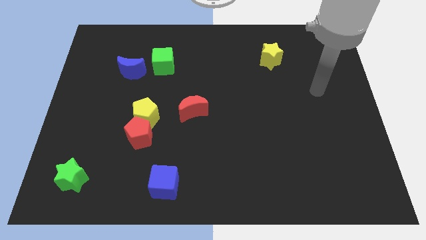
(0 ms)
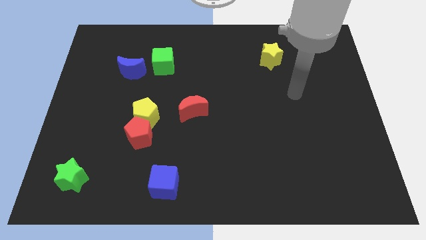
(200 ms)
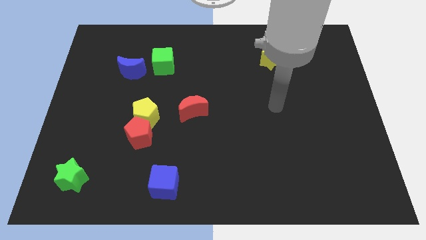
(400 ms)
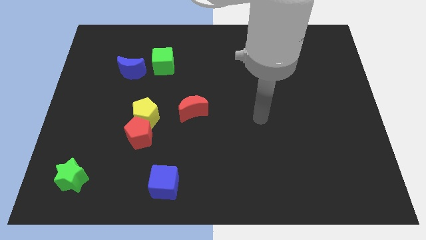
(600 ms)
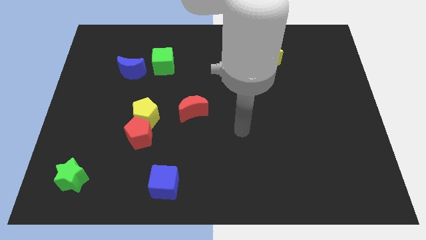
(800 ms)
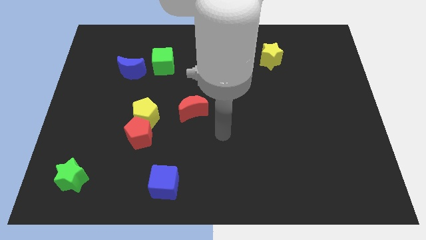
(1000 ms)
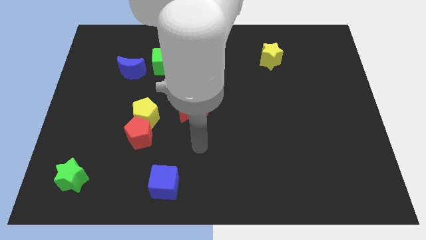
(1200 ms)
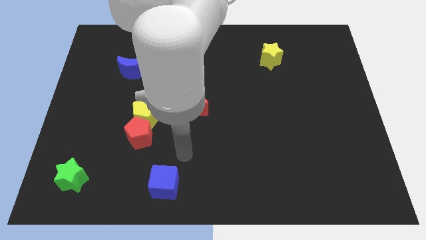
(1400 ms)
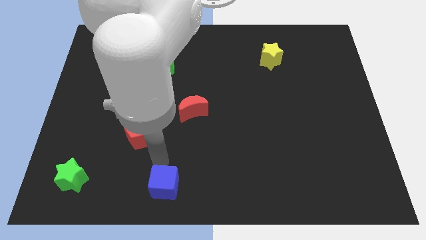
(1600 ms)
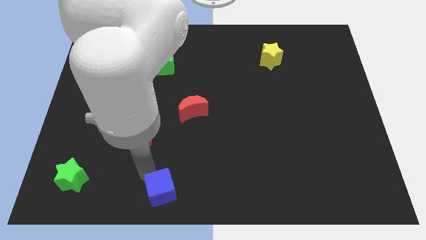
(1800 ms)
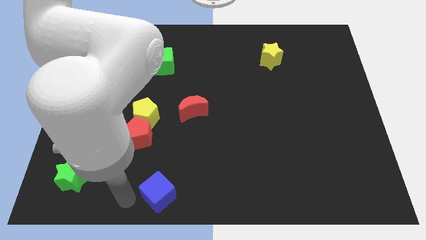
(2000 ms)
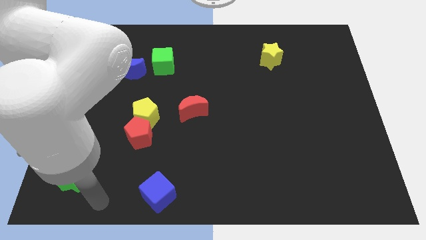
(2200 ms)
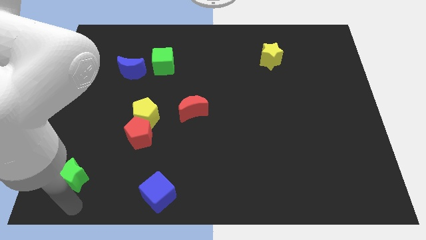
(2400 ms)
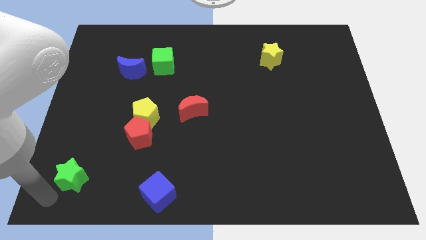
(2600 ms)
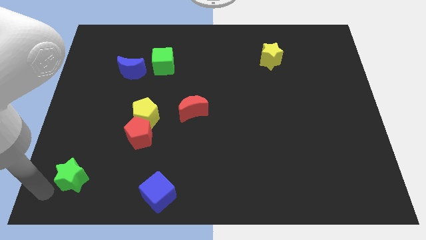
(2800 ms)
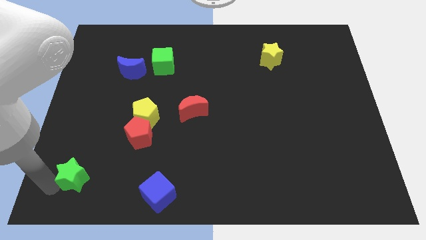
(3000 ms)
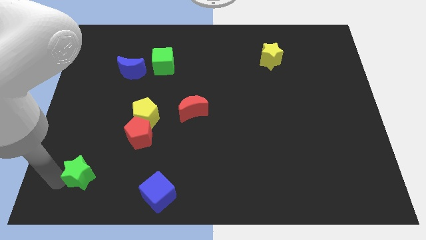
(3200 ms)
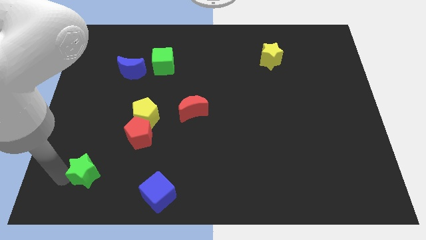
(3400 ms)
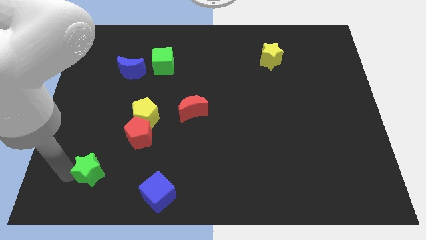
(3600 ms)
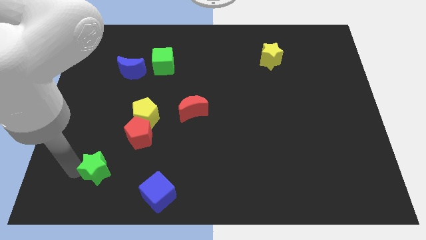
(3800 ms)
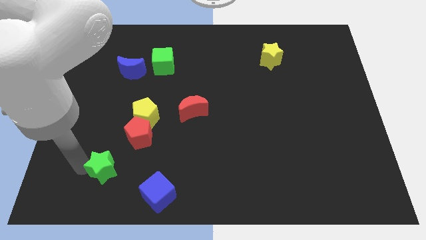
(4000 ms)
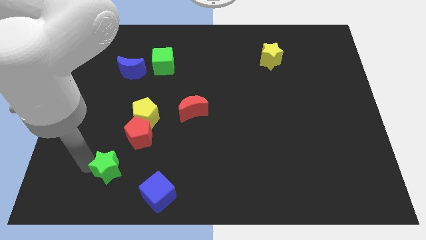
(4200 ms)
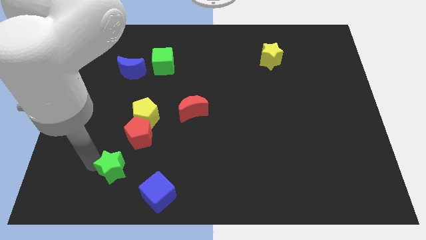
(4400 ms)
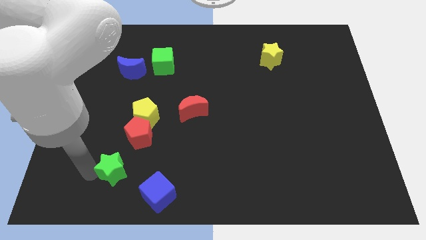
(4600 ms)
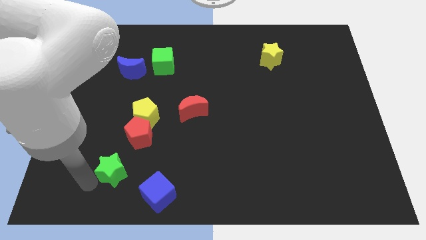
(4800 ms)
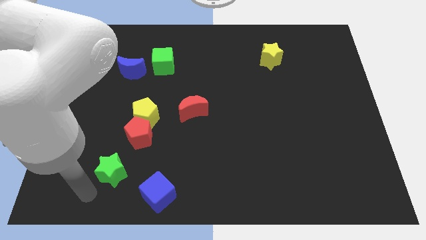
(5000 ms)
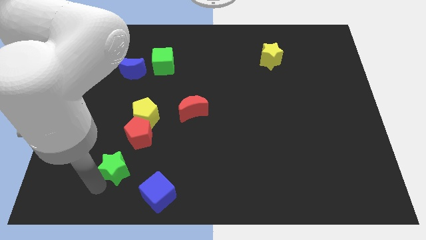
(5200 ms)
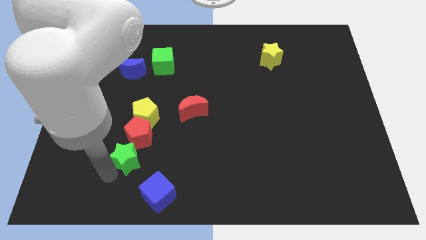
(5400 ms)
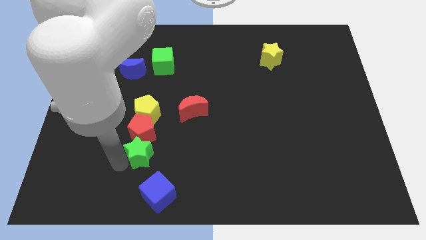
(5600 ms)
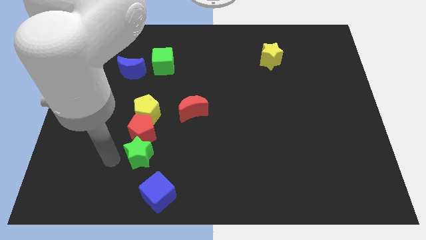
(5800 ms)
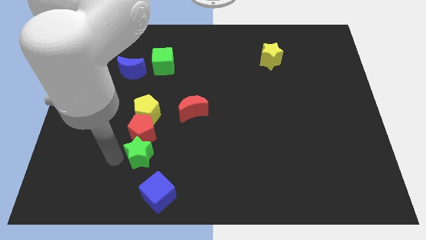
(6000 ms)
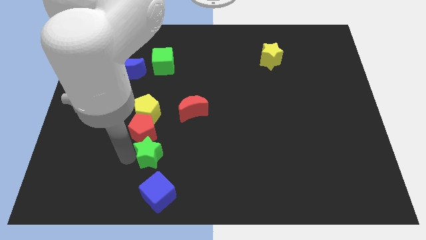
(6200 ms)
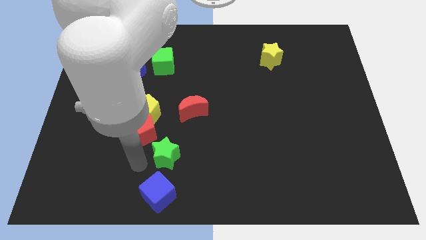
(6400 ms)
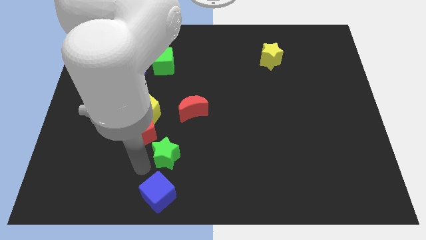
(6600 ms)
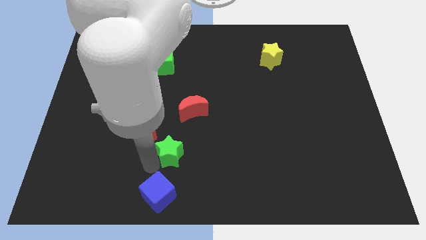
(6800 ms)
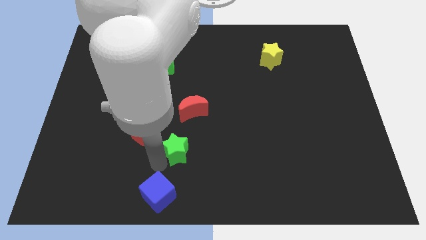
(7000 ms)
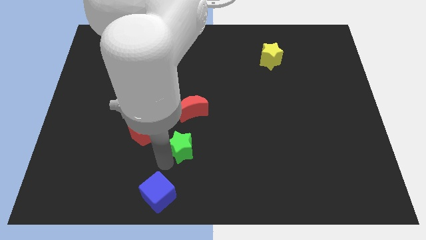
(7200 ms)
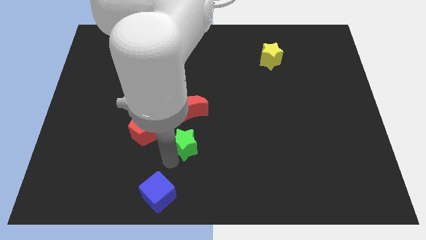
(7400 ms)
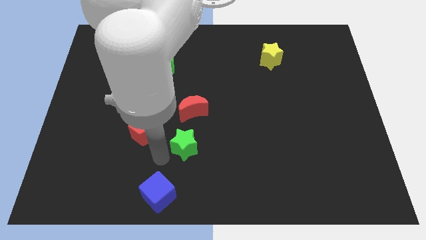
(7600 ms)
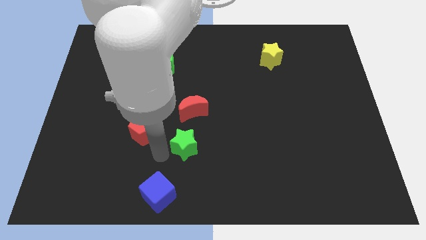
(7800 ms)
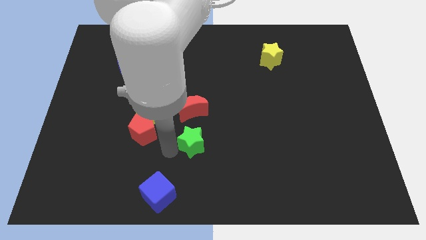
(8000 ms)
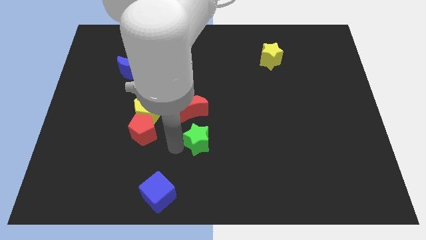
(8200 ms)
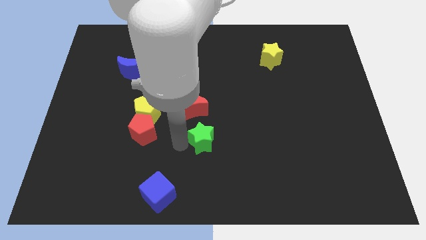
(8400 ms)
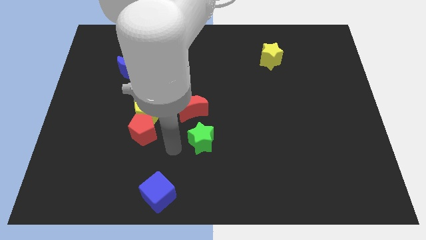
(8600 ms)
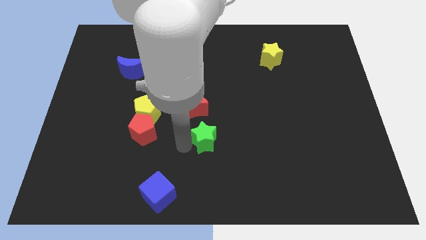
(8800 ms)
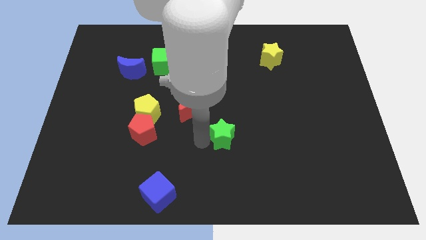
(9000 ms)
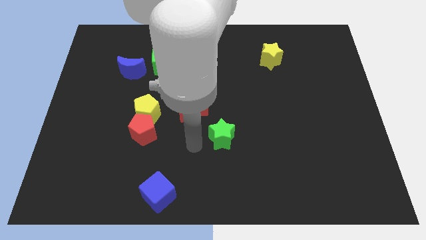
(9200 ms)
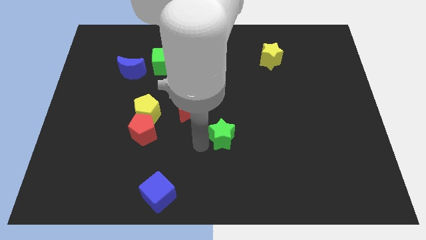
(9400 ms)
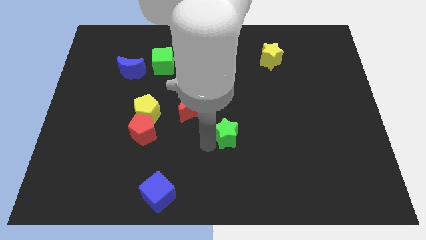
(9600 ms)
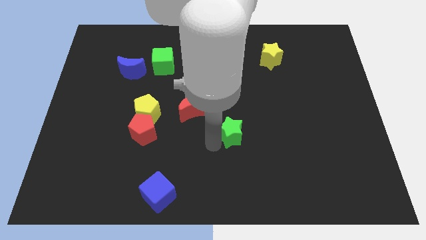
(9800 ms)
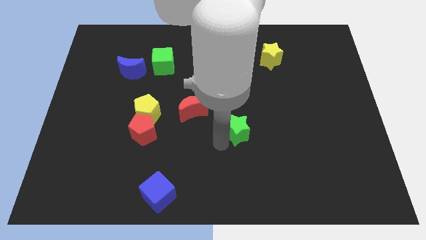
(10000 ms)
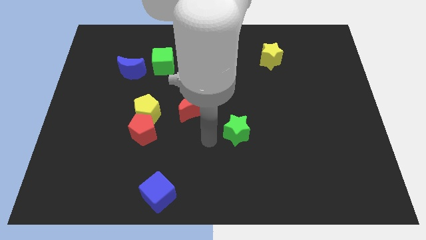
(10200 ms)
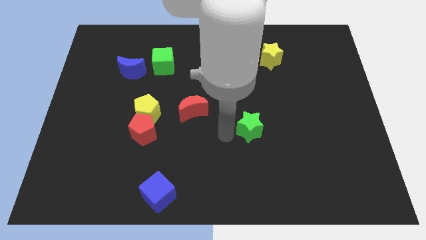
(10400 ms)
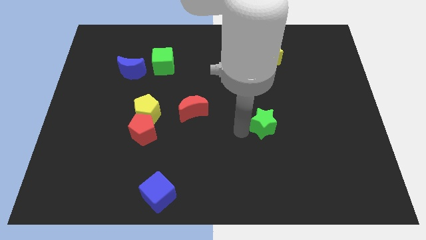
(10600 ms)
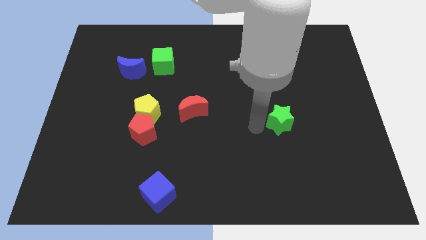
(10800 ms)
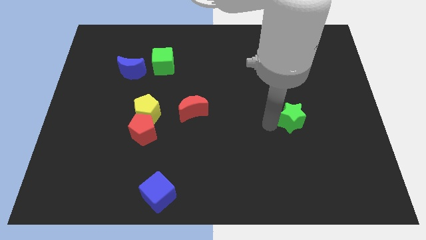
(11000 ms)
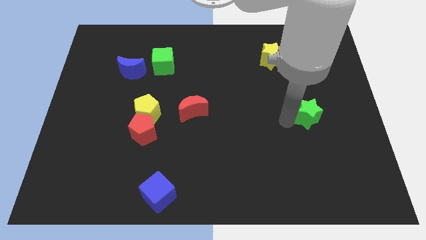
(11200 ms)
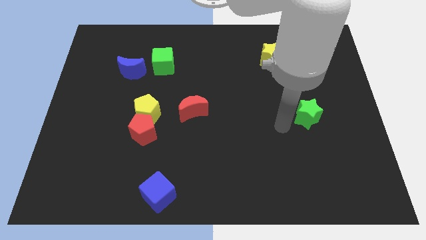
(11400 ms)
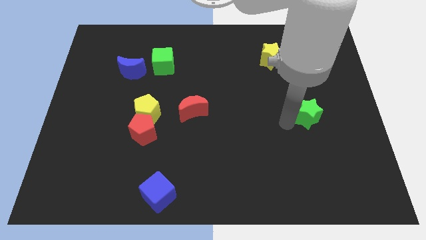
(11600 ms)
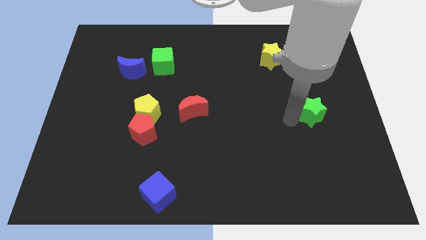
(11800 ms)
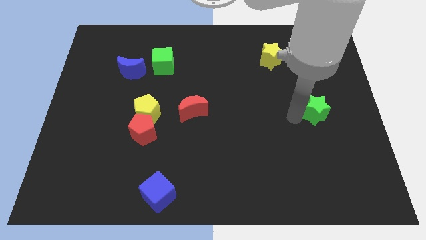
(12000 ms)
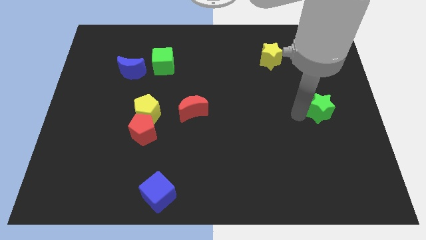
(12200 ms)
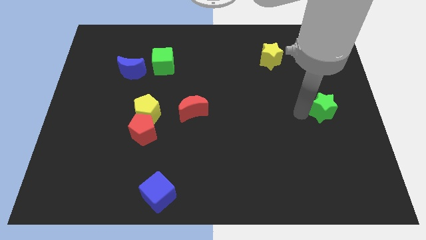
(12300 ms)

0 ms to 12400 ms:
put the green star to the right side of the board

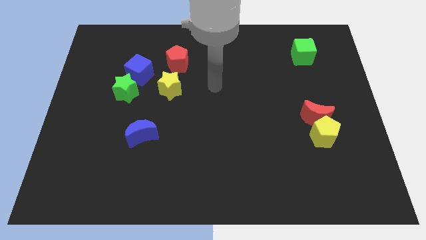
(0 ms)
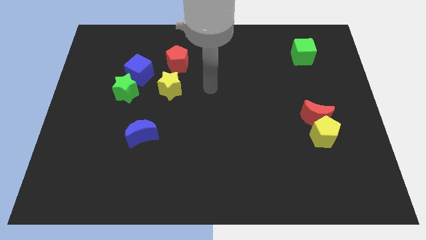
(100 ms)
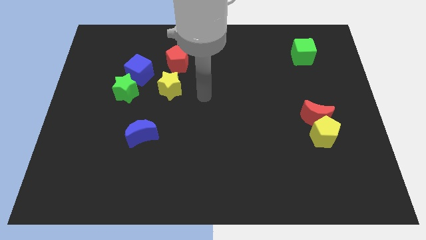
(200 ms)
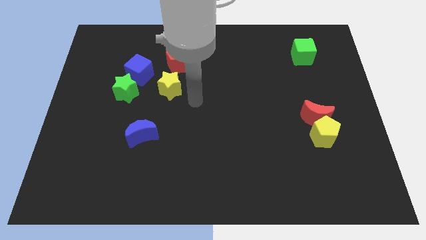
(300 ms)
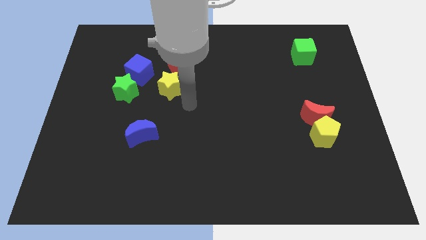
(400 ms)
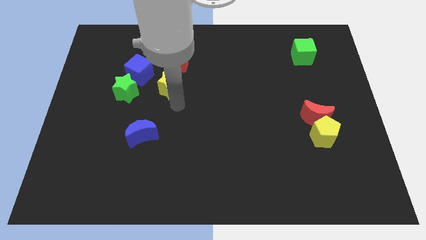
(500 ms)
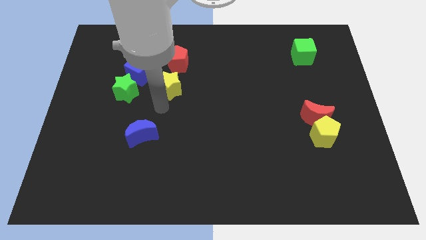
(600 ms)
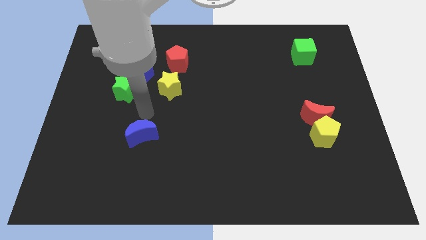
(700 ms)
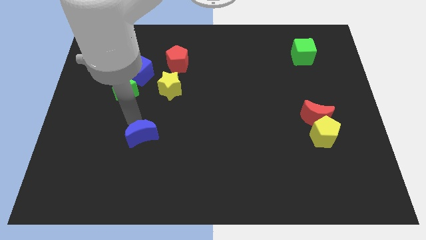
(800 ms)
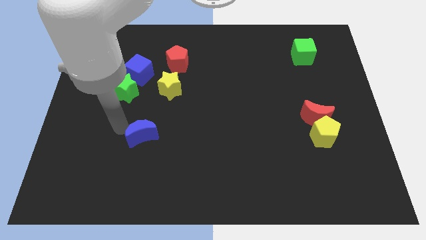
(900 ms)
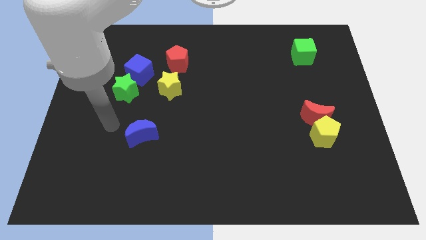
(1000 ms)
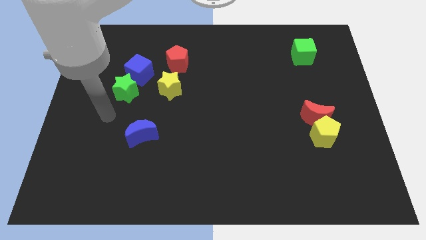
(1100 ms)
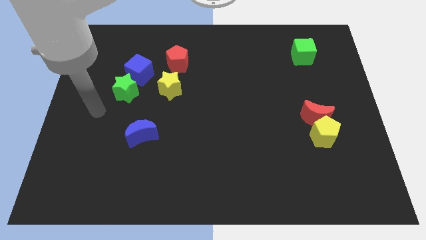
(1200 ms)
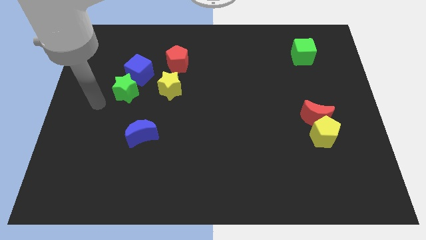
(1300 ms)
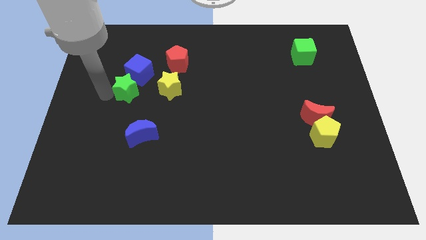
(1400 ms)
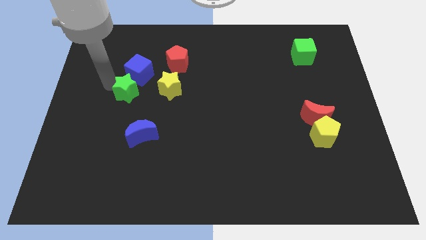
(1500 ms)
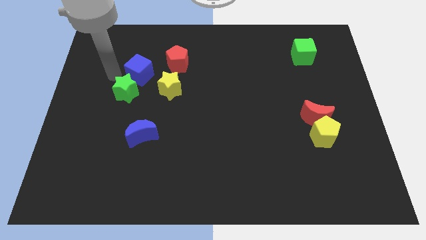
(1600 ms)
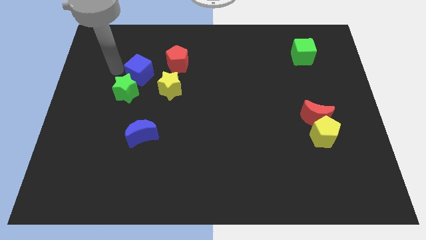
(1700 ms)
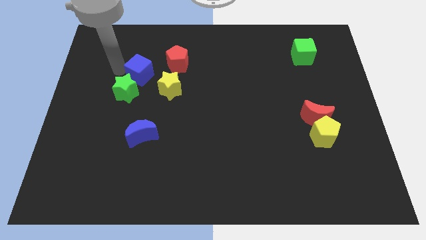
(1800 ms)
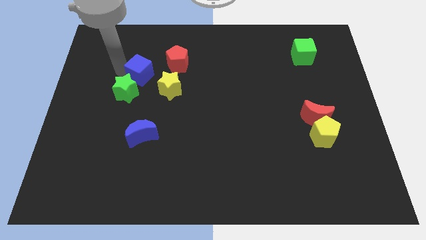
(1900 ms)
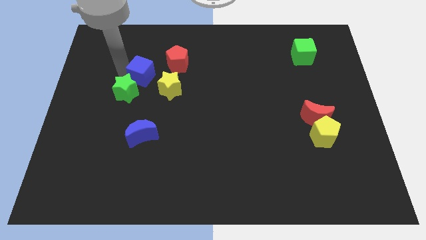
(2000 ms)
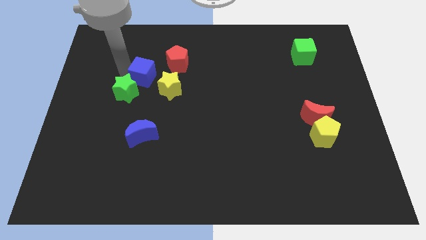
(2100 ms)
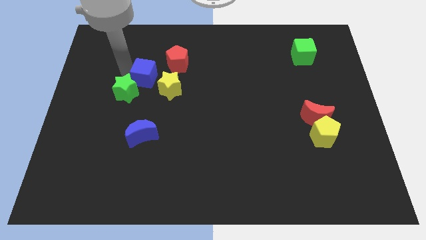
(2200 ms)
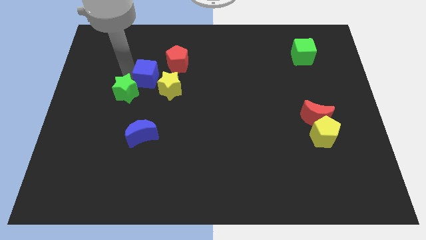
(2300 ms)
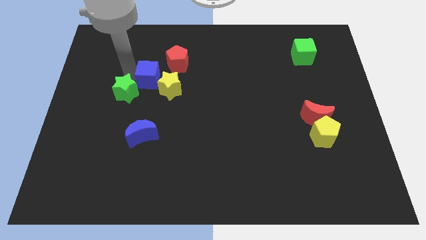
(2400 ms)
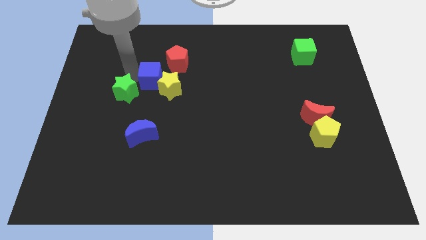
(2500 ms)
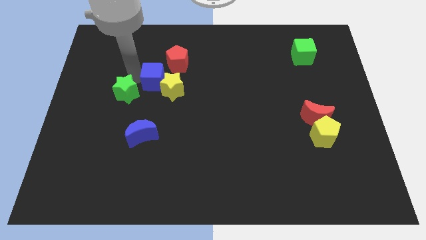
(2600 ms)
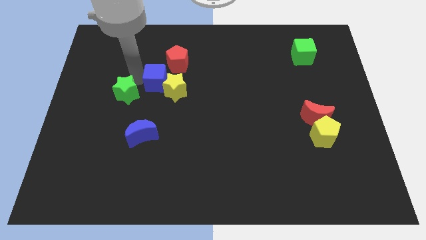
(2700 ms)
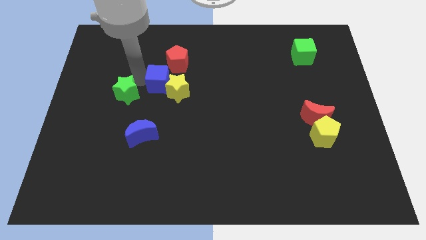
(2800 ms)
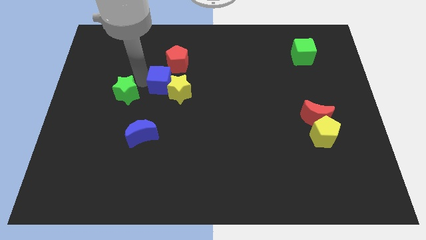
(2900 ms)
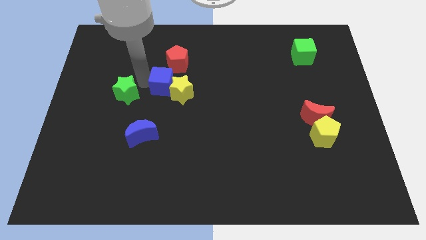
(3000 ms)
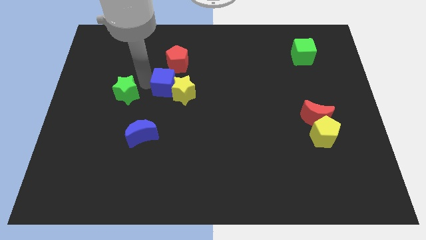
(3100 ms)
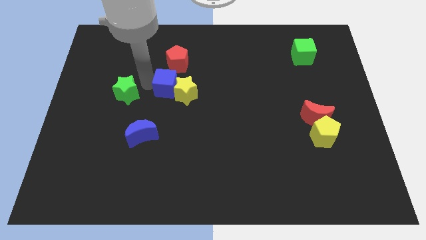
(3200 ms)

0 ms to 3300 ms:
move the blue cube to the center
